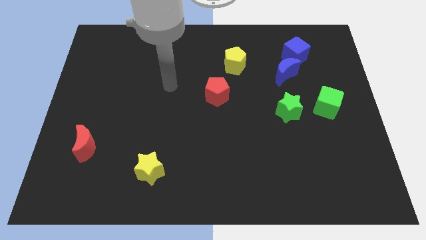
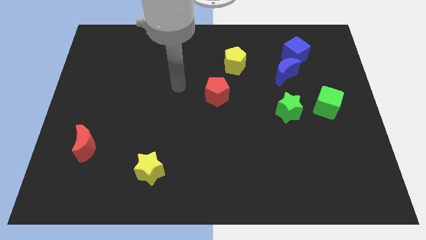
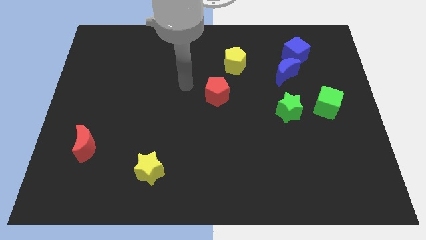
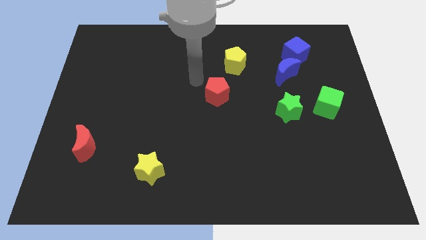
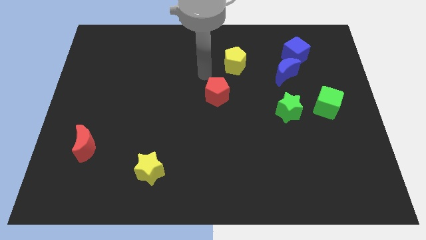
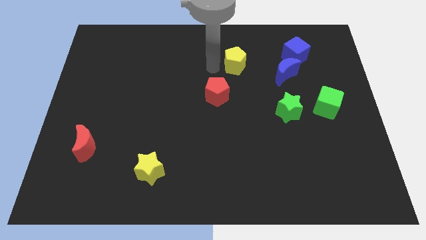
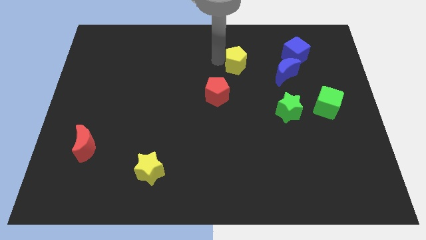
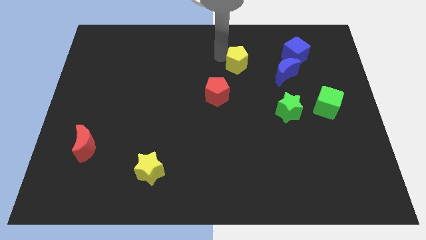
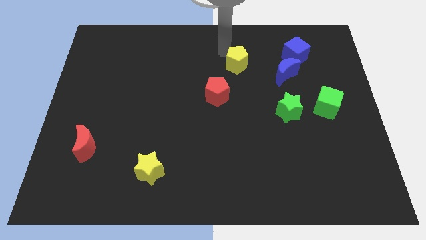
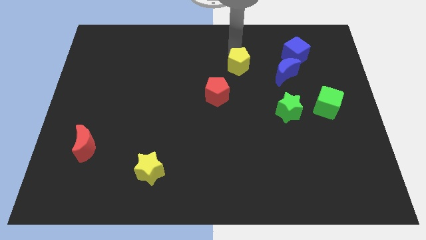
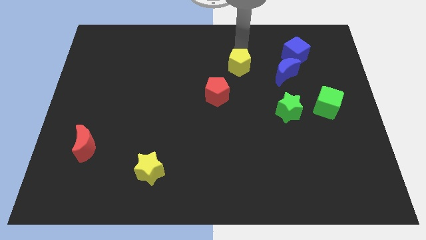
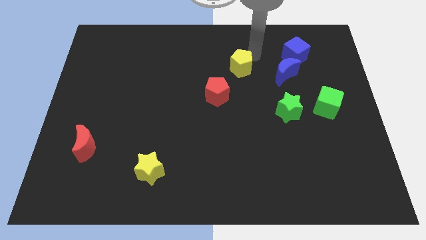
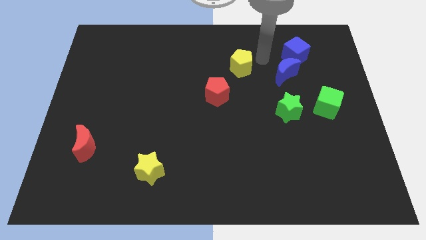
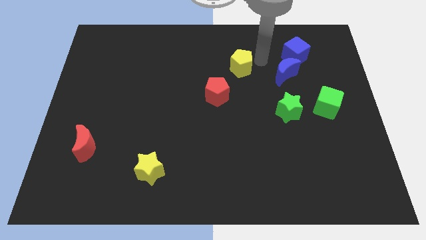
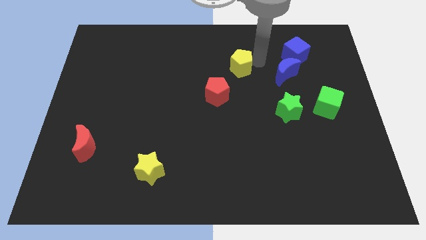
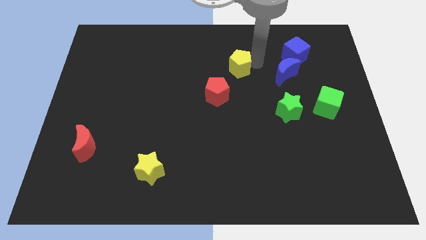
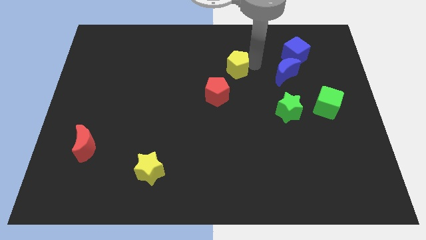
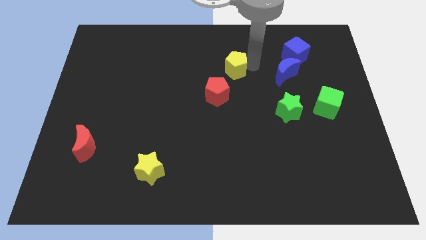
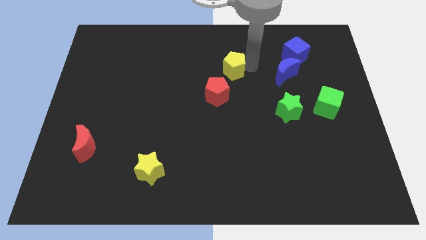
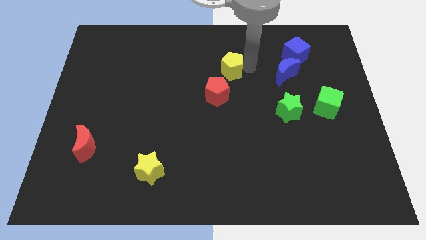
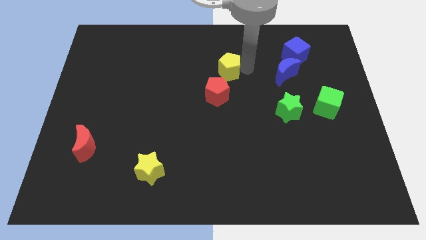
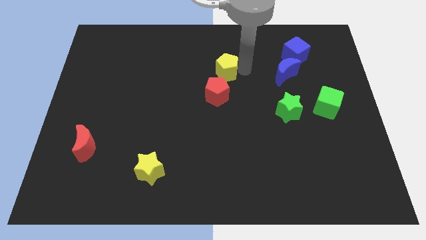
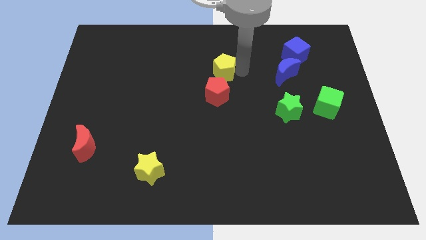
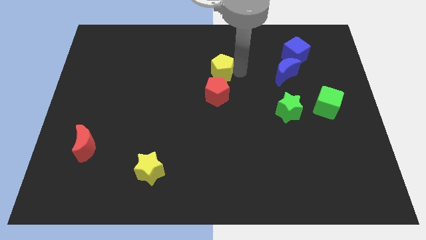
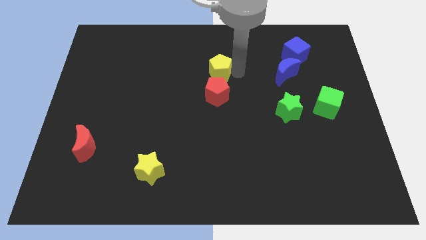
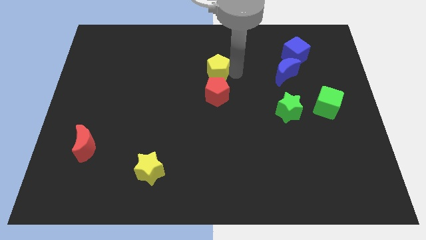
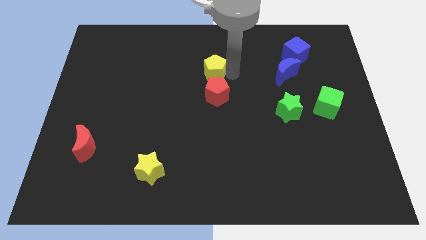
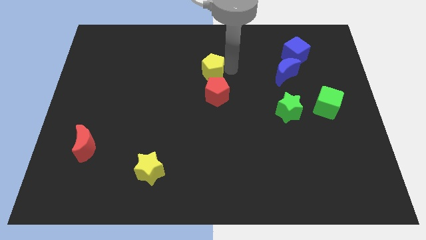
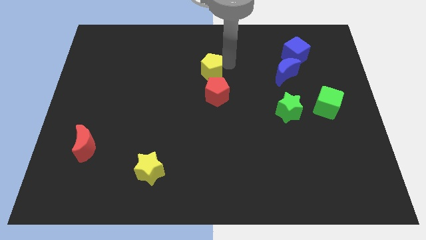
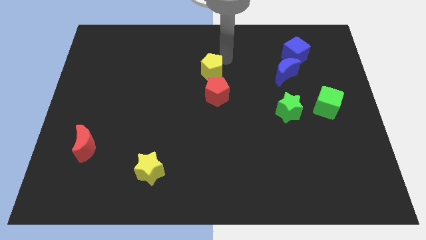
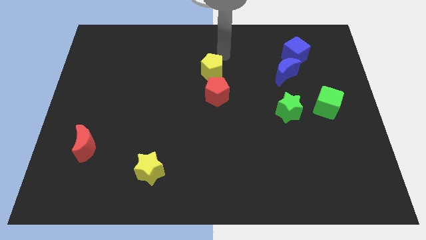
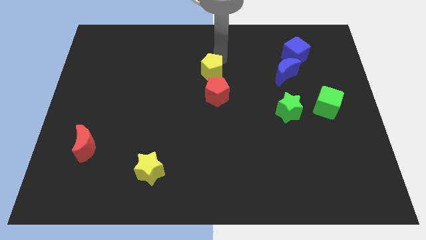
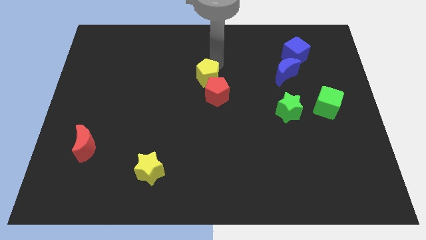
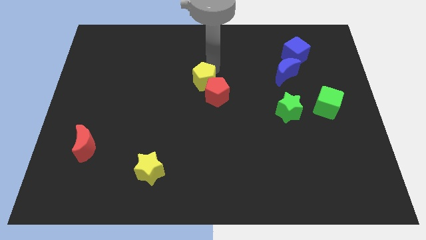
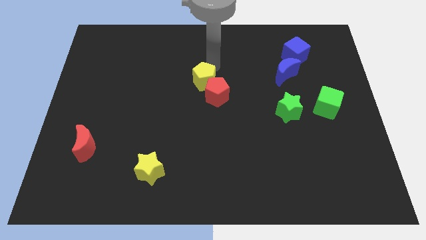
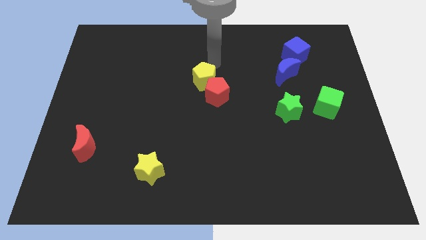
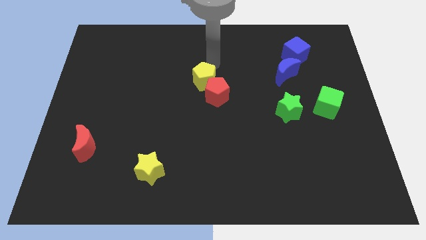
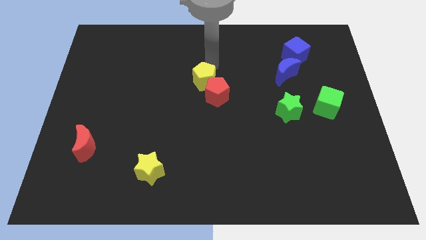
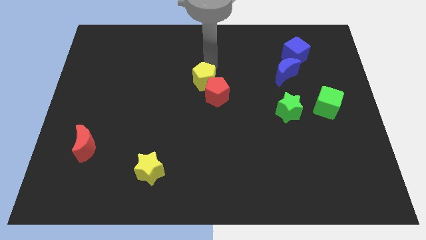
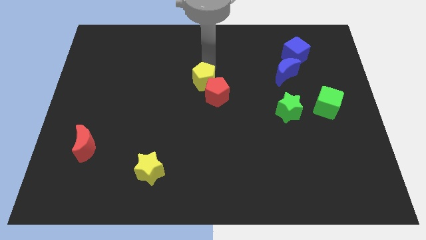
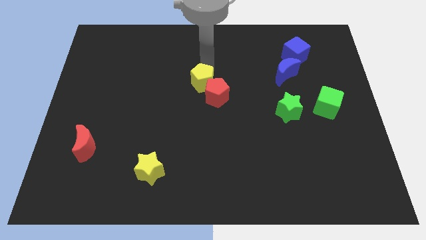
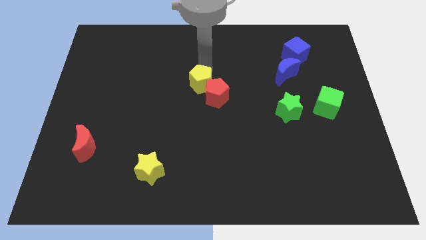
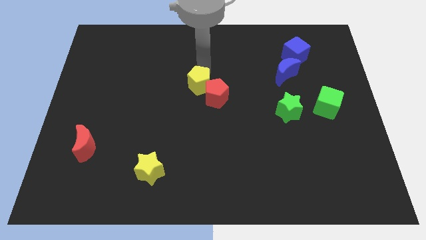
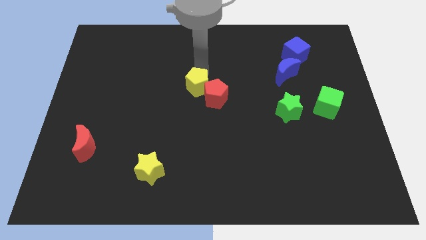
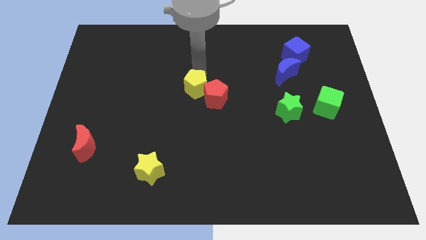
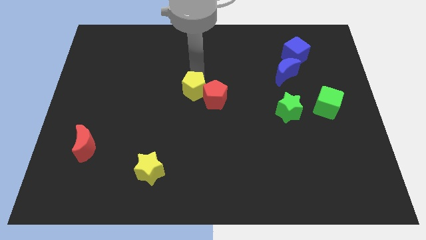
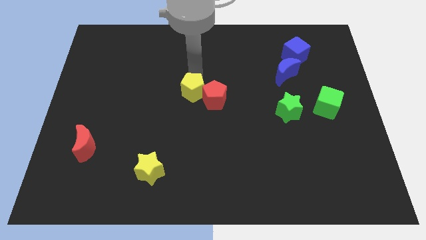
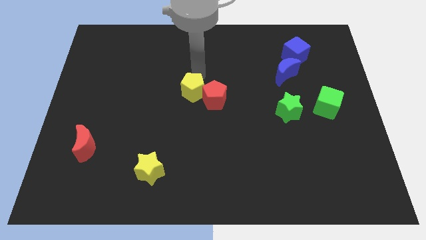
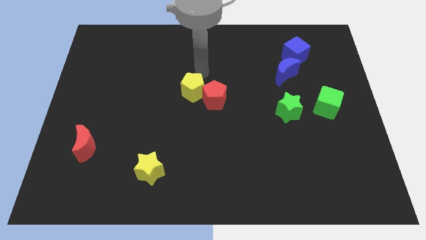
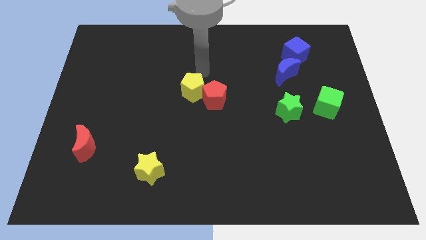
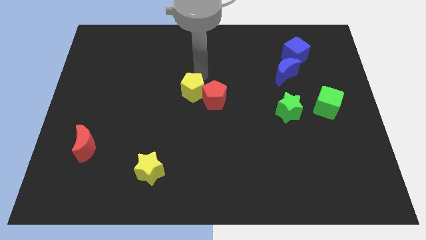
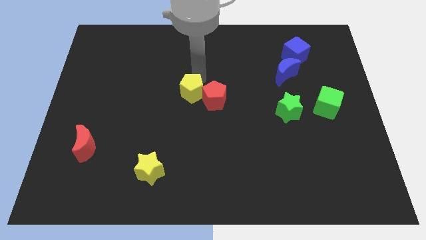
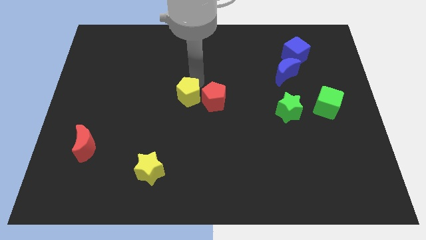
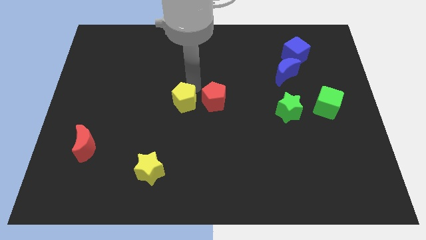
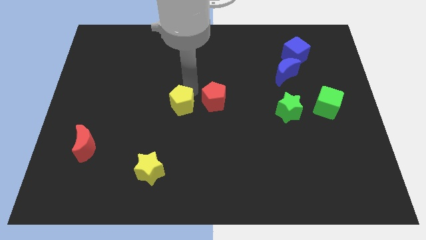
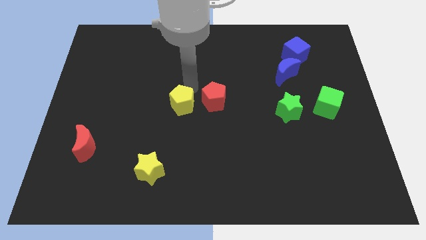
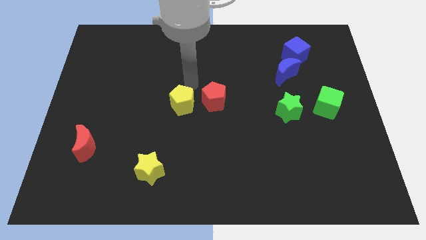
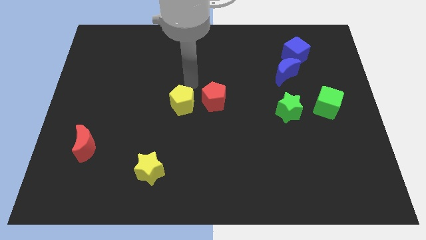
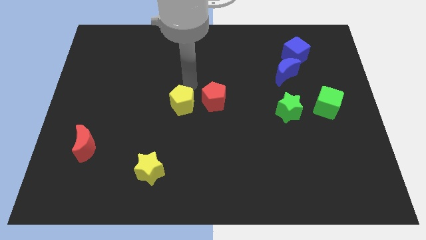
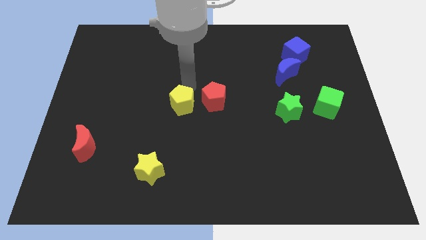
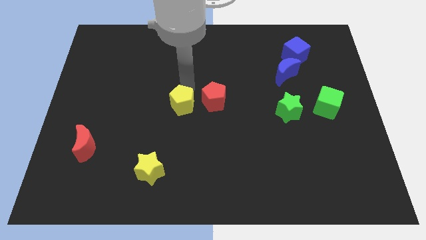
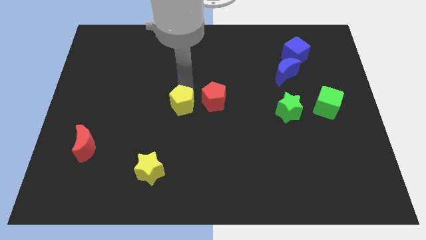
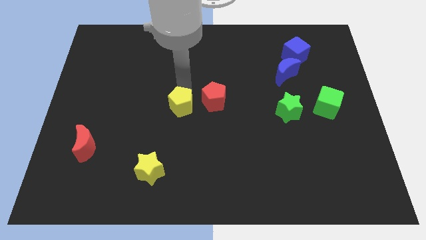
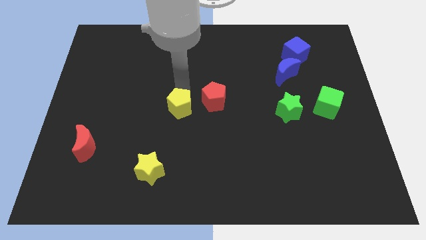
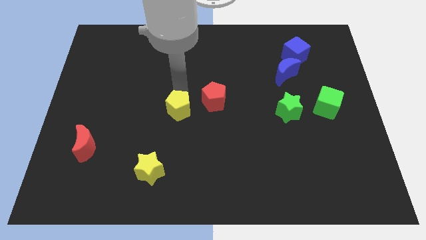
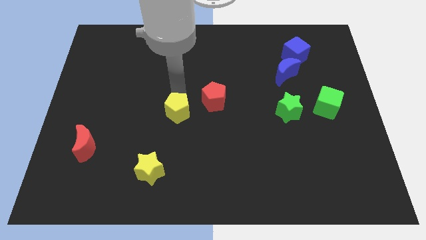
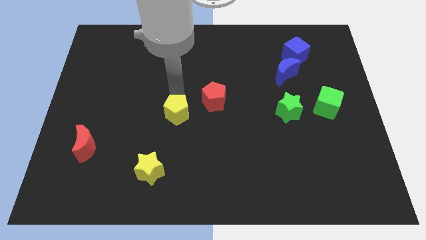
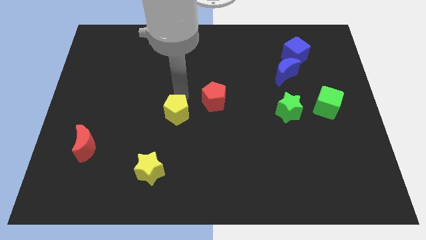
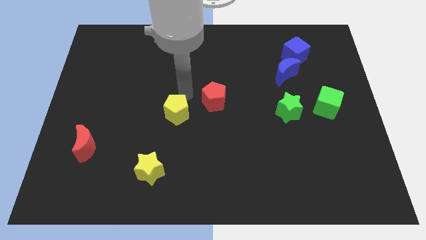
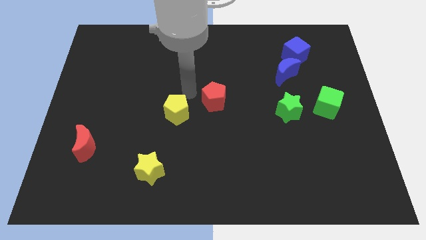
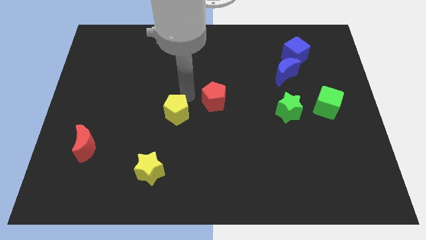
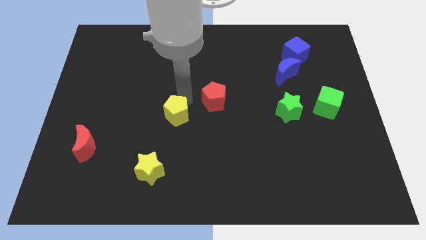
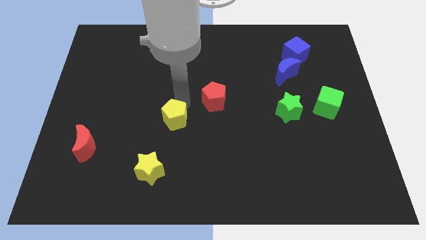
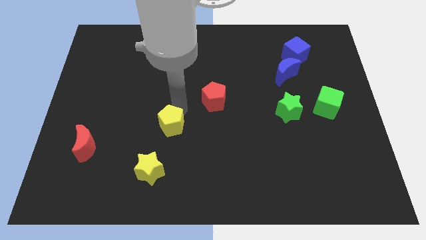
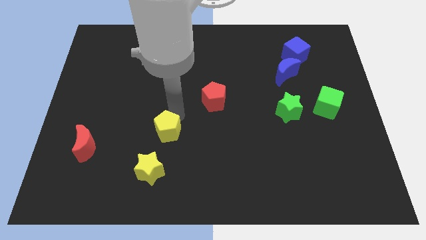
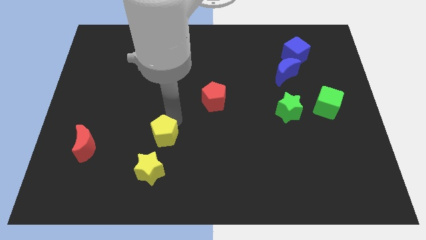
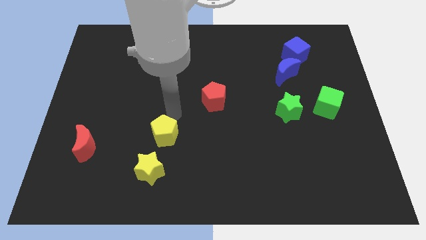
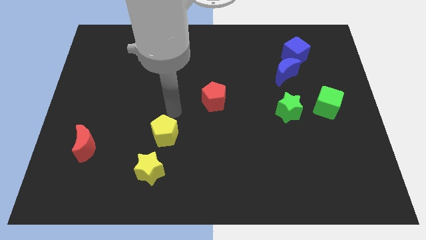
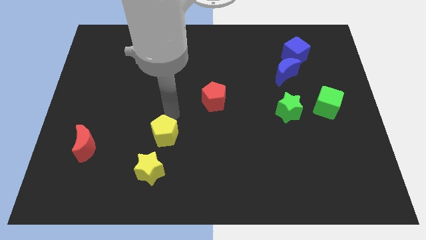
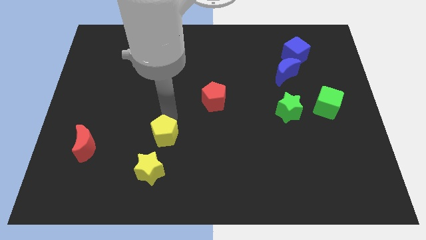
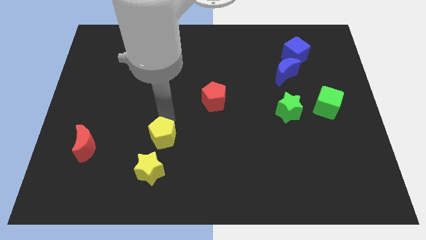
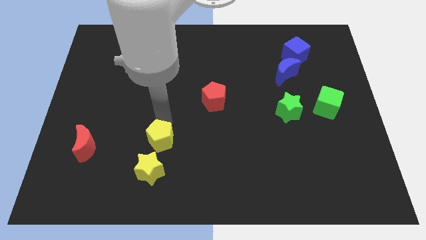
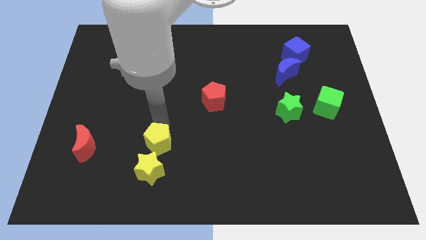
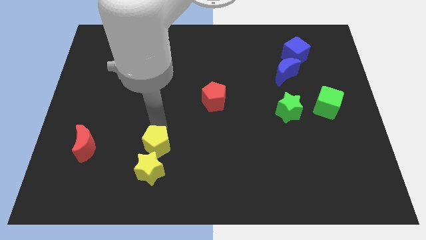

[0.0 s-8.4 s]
slide the yellow pentagon towards the yellow star
